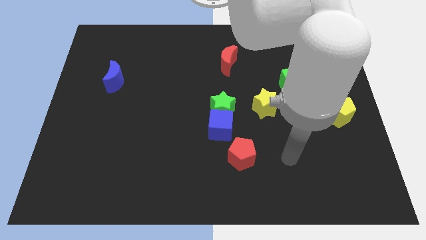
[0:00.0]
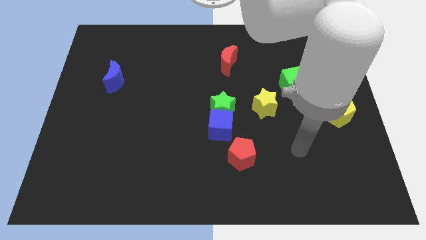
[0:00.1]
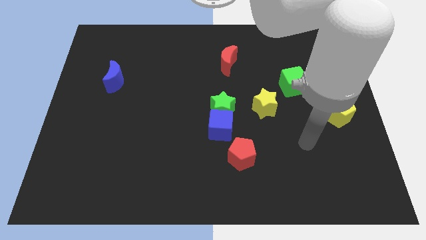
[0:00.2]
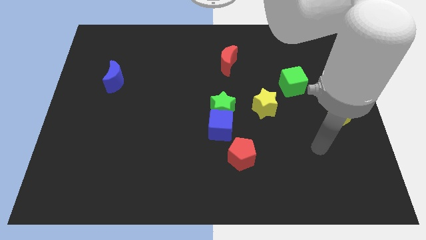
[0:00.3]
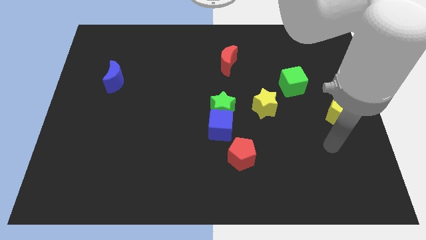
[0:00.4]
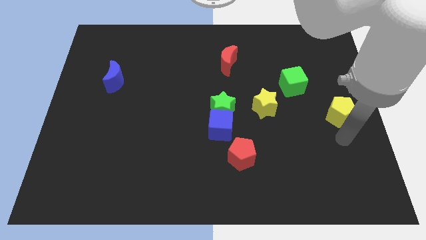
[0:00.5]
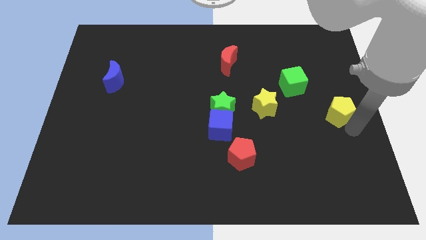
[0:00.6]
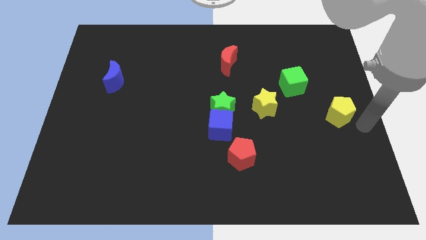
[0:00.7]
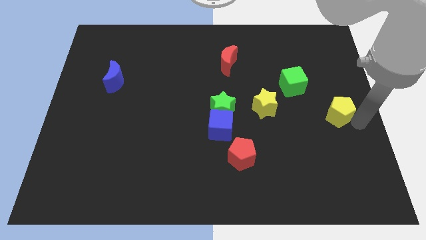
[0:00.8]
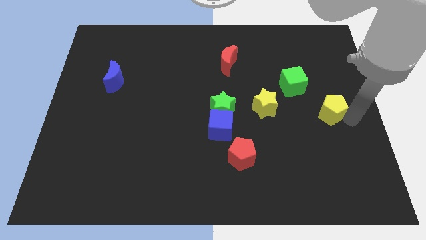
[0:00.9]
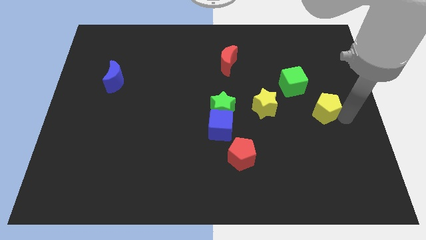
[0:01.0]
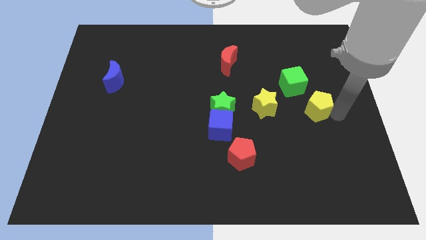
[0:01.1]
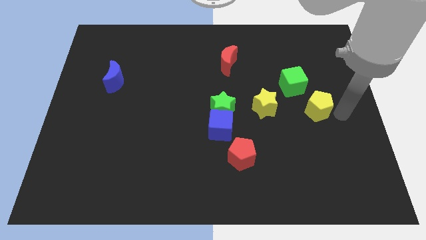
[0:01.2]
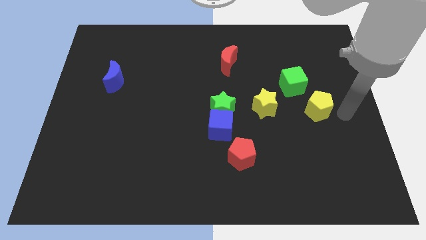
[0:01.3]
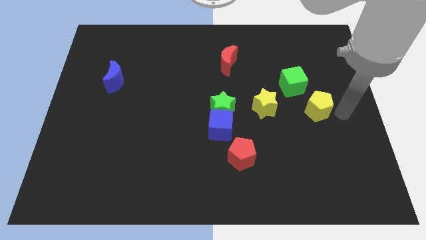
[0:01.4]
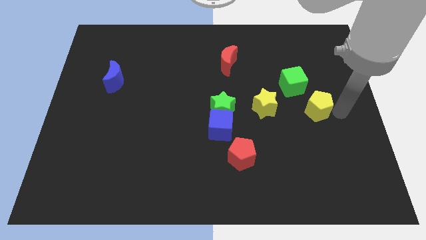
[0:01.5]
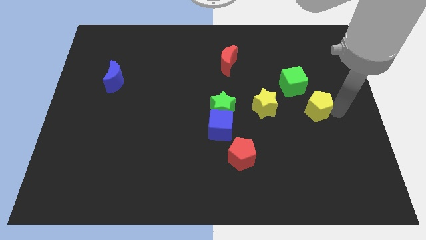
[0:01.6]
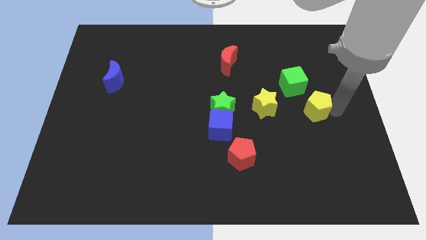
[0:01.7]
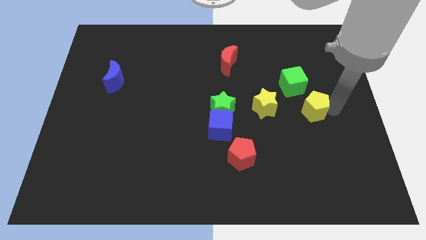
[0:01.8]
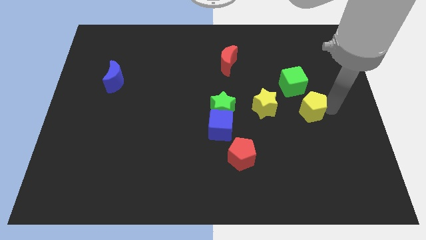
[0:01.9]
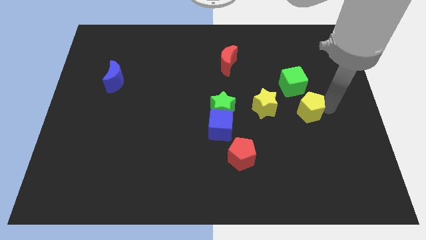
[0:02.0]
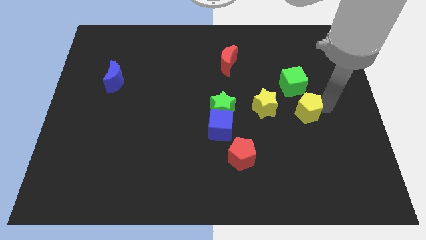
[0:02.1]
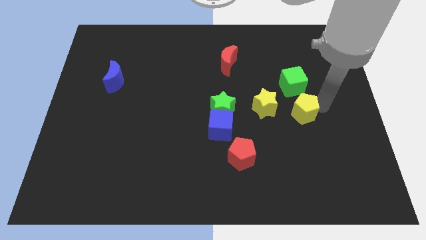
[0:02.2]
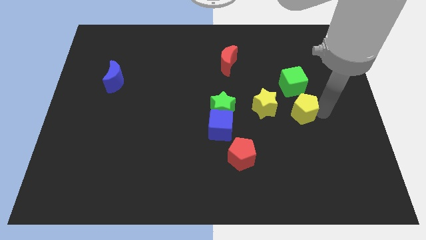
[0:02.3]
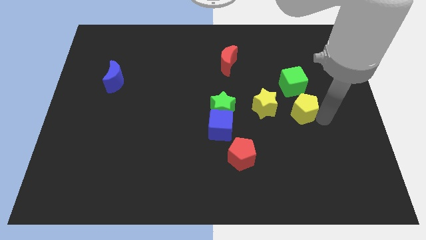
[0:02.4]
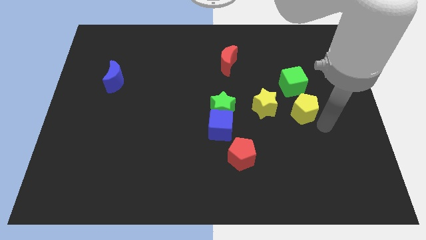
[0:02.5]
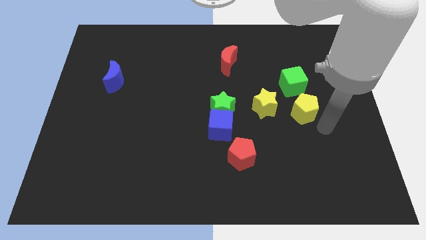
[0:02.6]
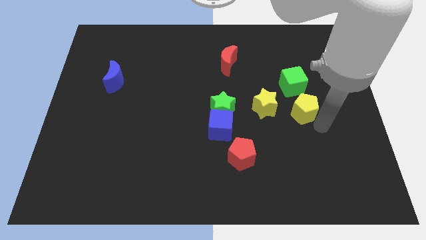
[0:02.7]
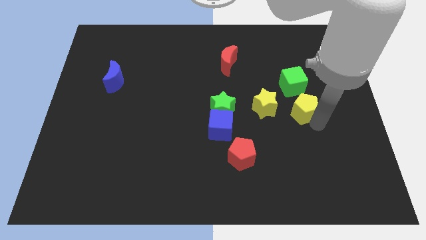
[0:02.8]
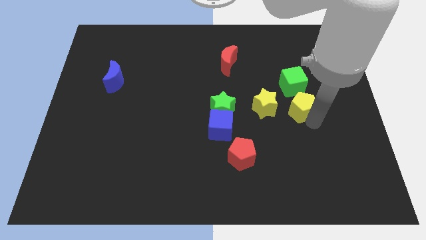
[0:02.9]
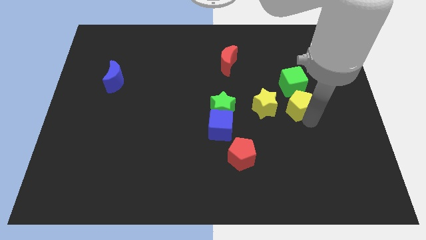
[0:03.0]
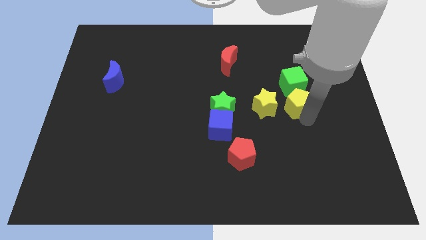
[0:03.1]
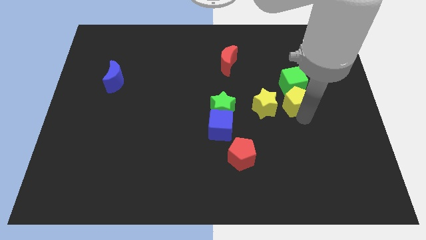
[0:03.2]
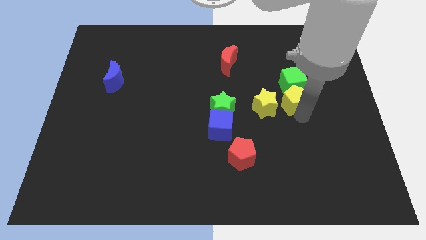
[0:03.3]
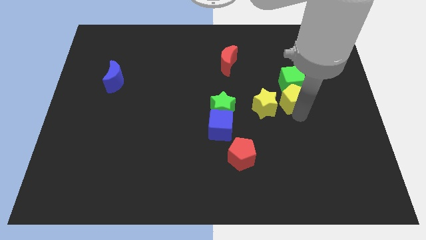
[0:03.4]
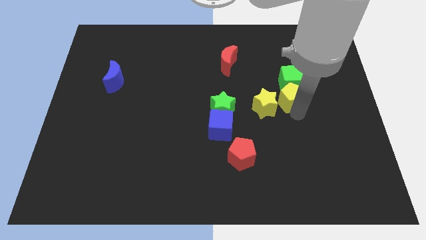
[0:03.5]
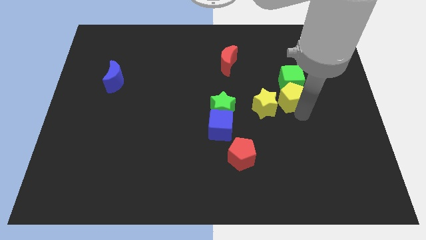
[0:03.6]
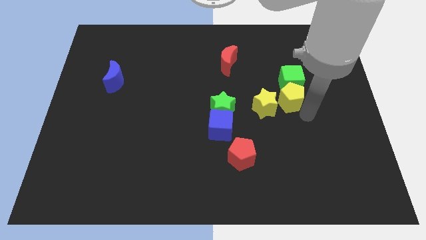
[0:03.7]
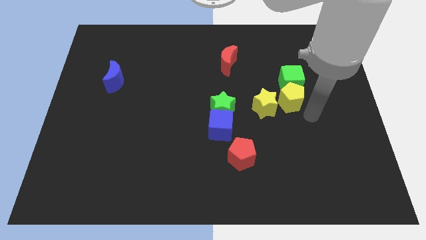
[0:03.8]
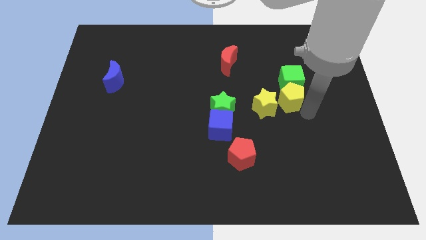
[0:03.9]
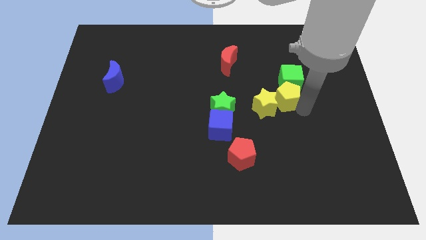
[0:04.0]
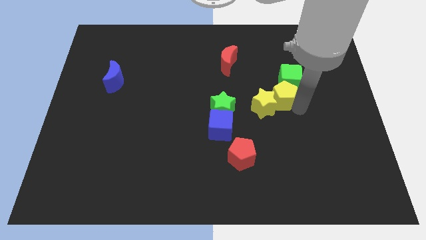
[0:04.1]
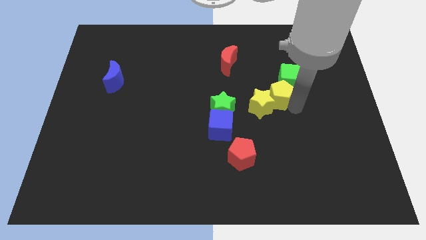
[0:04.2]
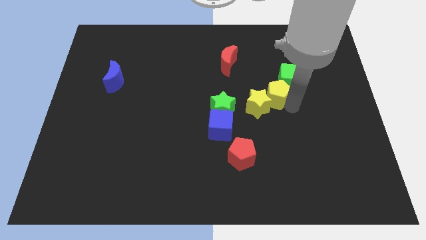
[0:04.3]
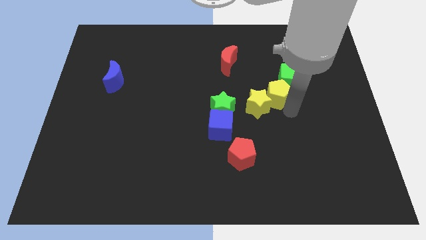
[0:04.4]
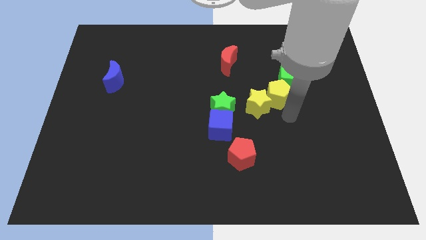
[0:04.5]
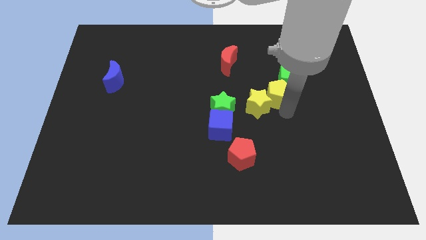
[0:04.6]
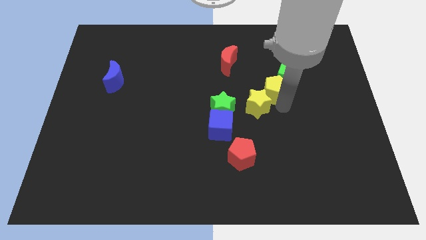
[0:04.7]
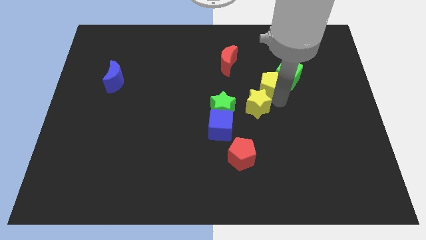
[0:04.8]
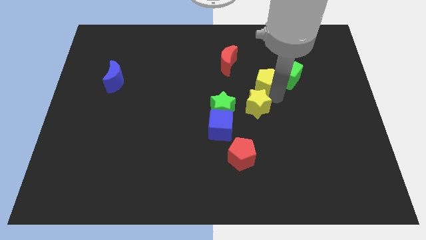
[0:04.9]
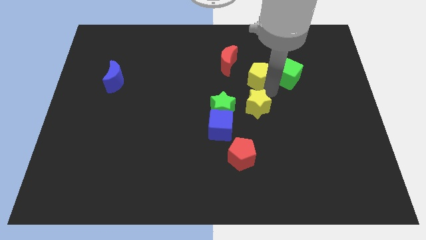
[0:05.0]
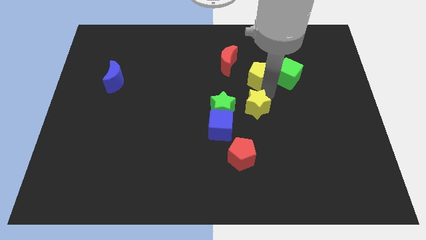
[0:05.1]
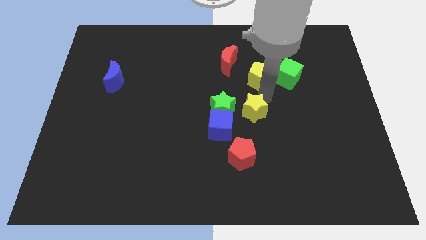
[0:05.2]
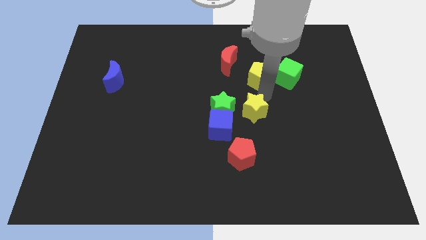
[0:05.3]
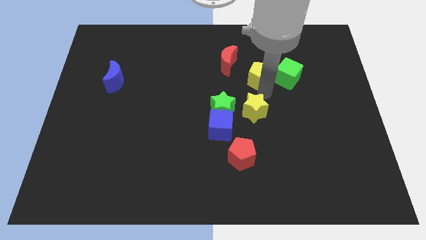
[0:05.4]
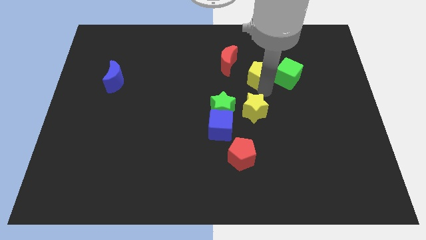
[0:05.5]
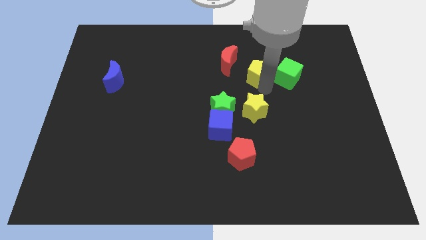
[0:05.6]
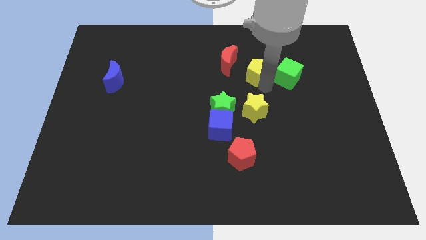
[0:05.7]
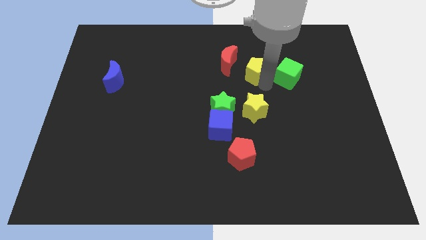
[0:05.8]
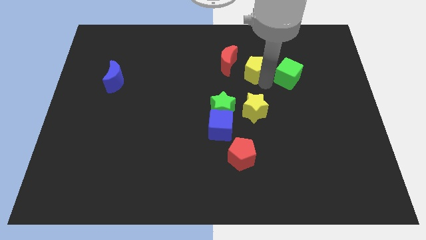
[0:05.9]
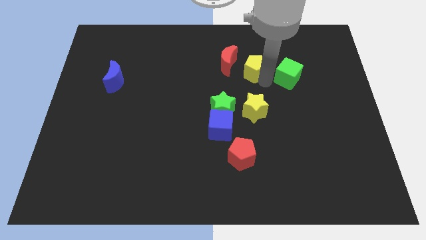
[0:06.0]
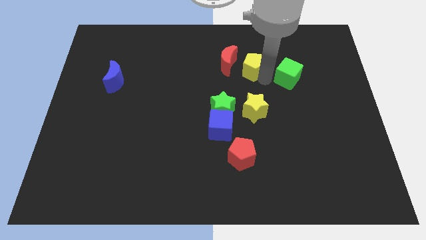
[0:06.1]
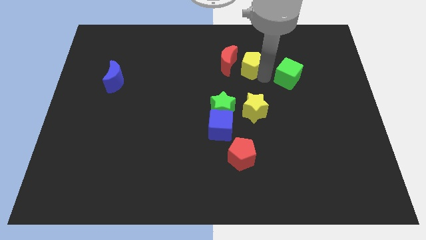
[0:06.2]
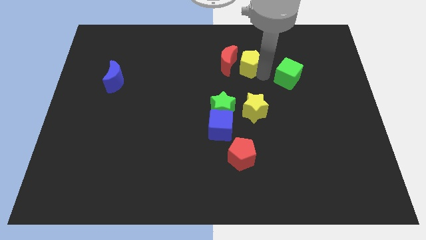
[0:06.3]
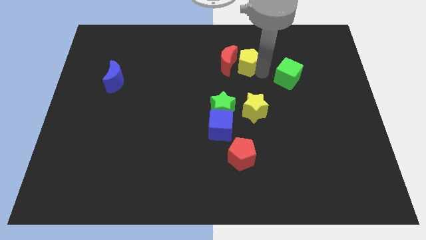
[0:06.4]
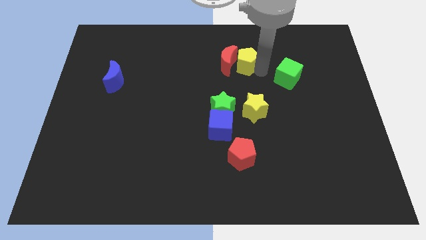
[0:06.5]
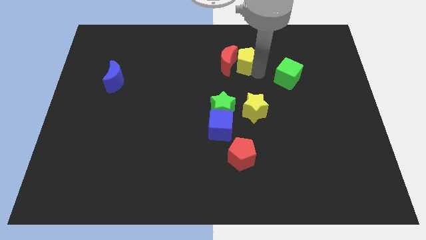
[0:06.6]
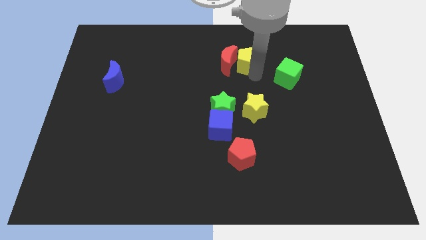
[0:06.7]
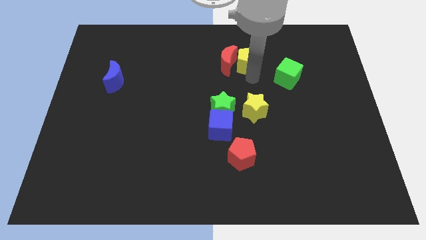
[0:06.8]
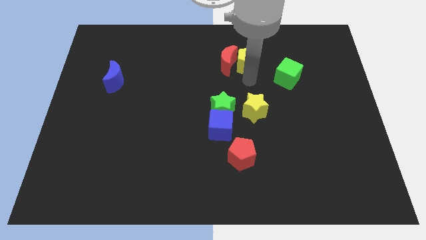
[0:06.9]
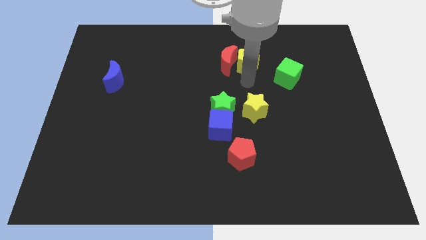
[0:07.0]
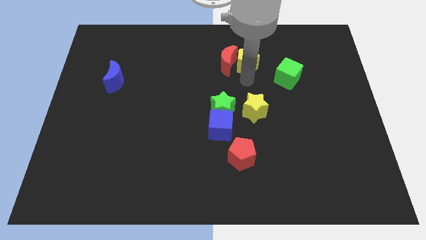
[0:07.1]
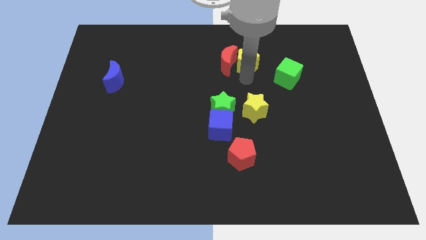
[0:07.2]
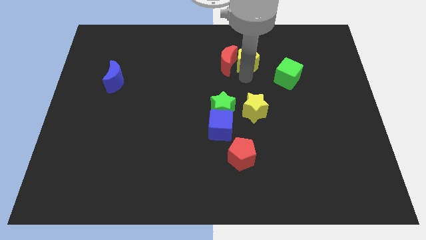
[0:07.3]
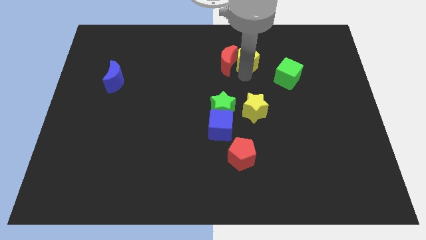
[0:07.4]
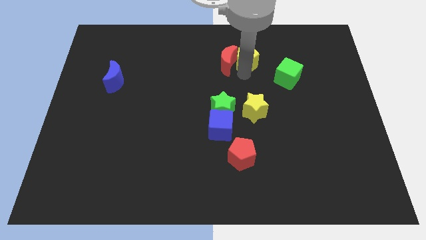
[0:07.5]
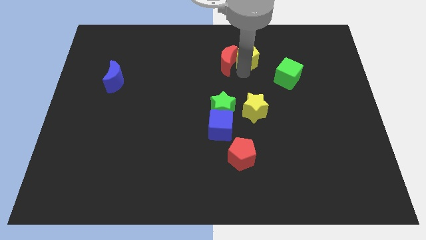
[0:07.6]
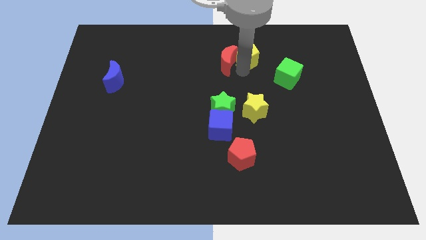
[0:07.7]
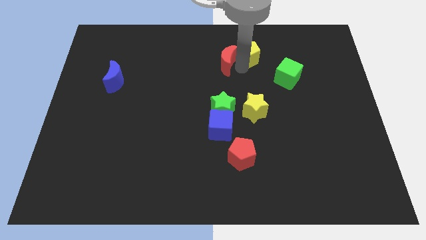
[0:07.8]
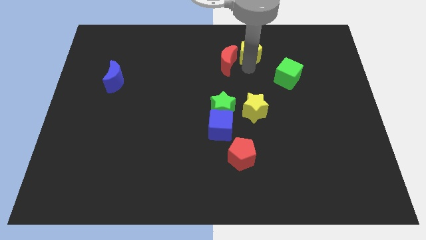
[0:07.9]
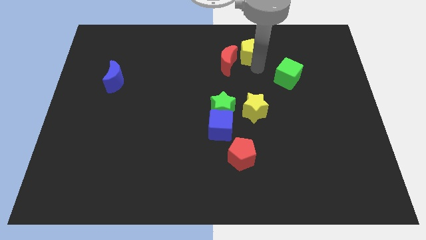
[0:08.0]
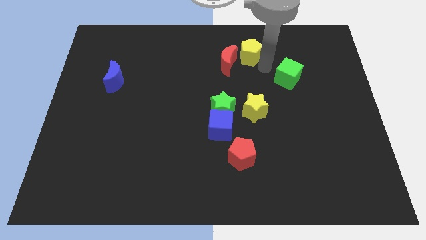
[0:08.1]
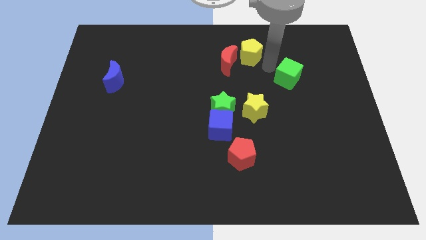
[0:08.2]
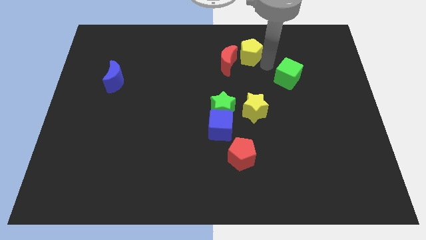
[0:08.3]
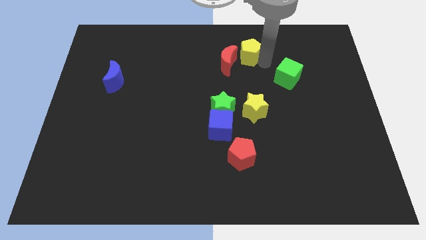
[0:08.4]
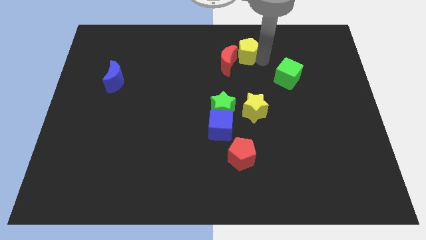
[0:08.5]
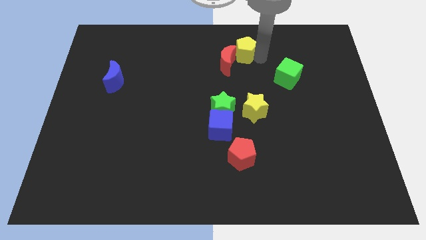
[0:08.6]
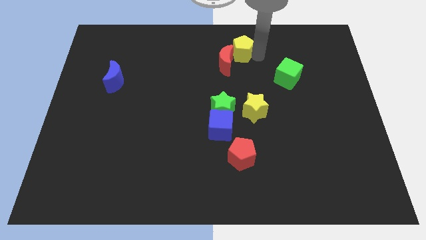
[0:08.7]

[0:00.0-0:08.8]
put the yellow pentagon to the top side
